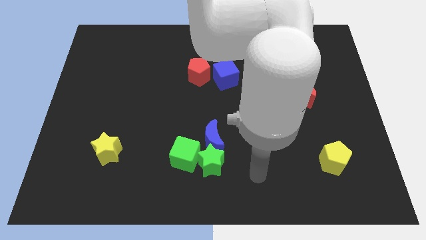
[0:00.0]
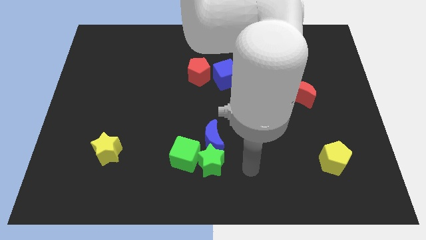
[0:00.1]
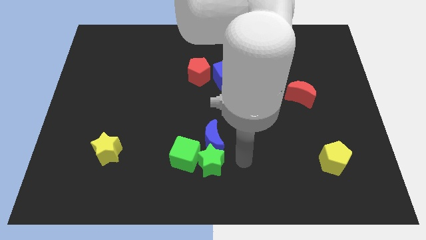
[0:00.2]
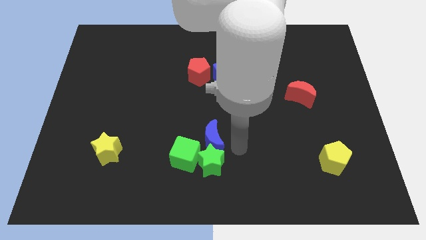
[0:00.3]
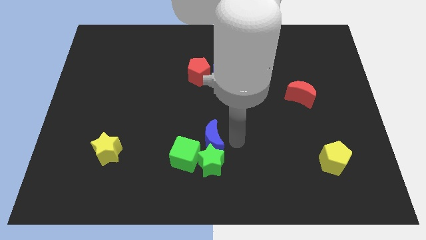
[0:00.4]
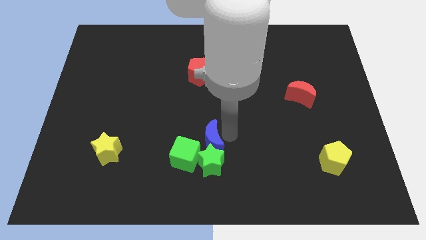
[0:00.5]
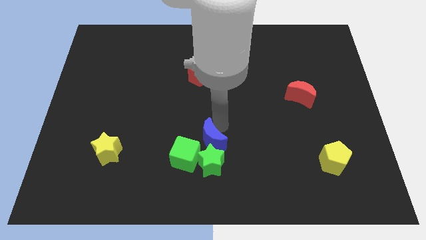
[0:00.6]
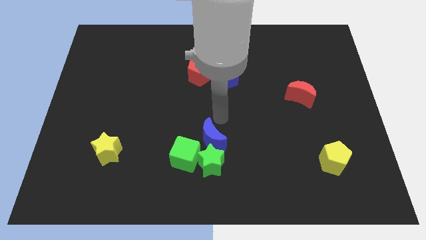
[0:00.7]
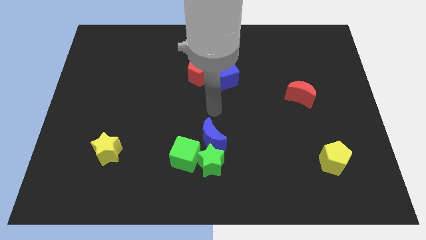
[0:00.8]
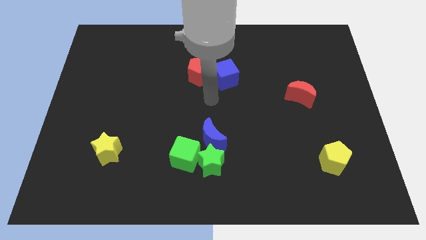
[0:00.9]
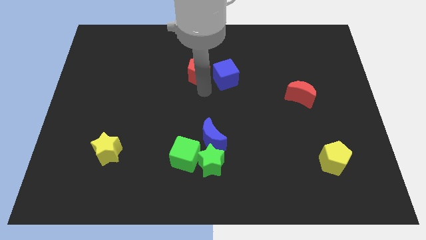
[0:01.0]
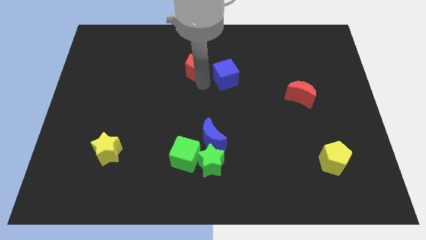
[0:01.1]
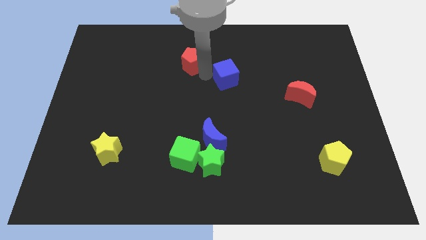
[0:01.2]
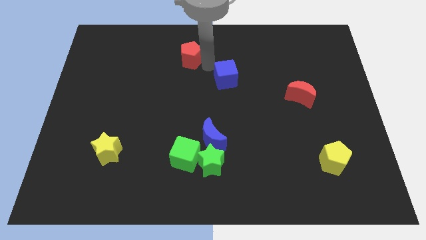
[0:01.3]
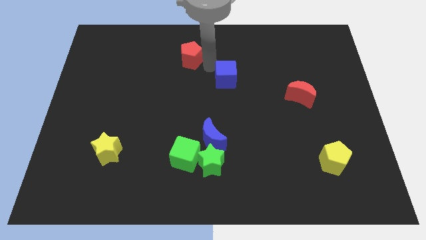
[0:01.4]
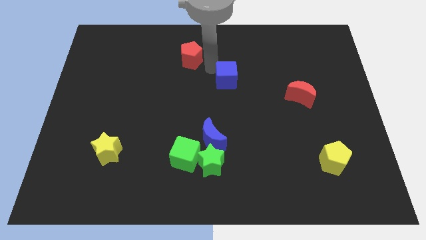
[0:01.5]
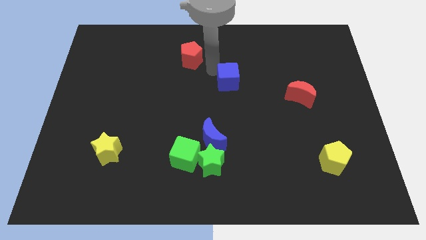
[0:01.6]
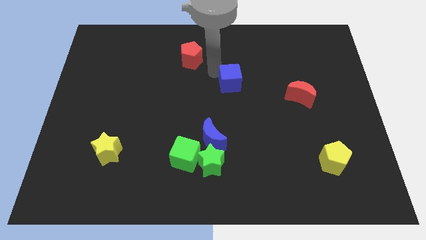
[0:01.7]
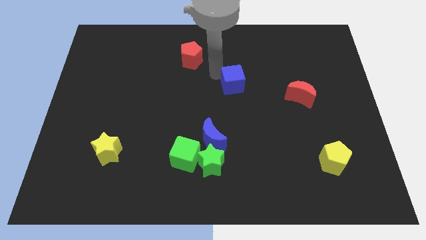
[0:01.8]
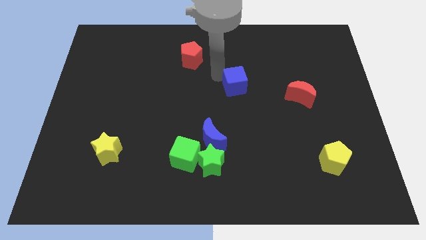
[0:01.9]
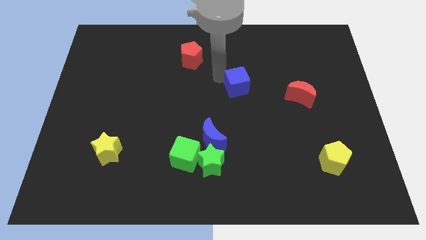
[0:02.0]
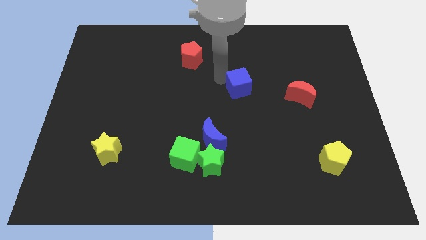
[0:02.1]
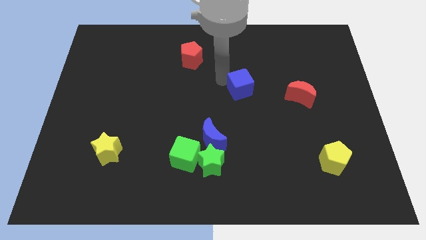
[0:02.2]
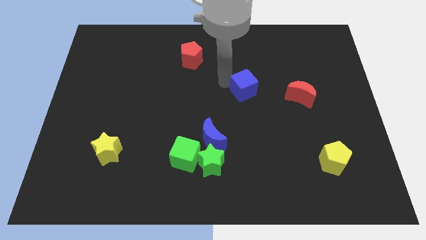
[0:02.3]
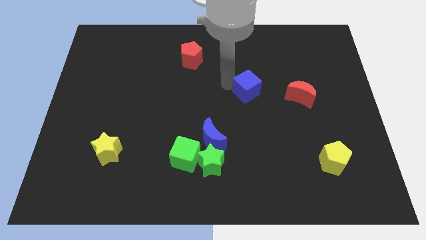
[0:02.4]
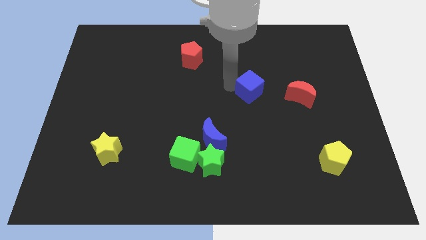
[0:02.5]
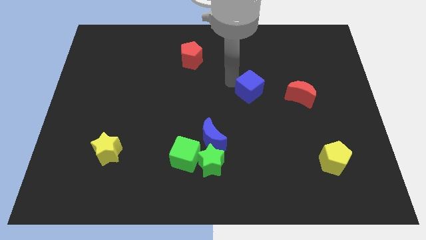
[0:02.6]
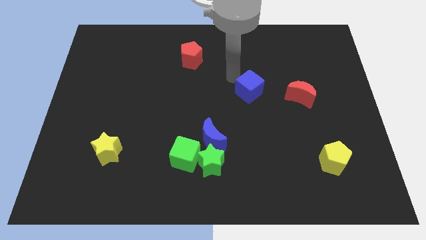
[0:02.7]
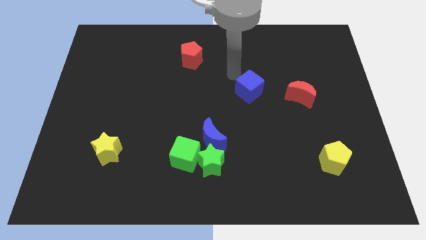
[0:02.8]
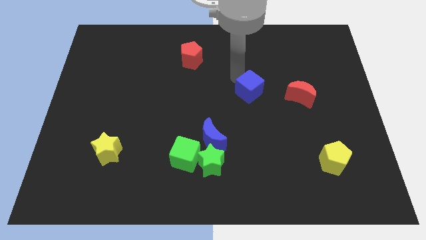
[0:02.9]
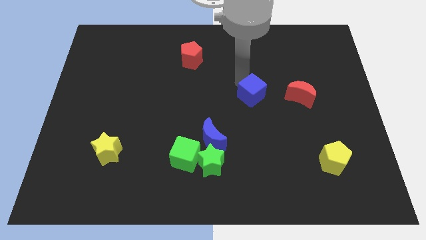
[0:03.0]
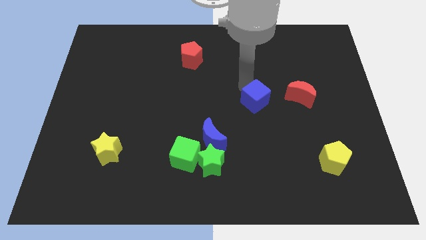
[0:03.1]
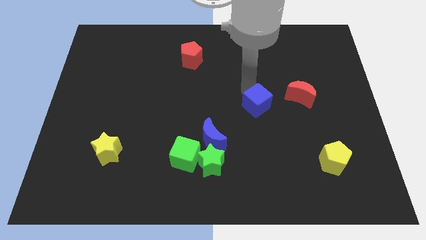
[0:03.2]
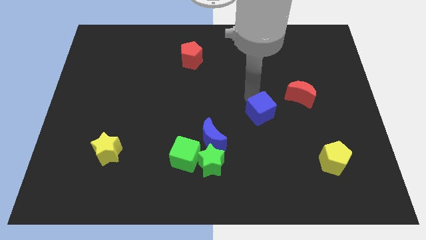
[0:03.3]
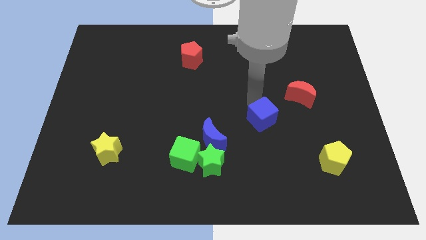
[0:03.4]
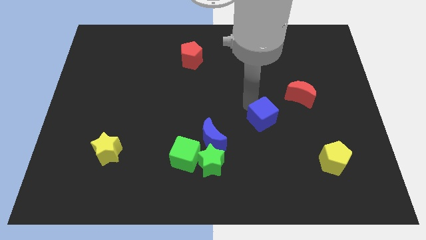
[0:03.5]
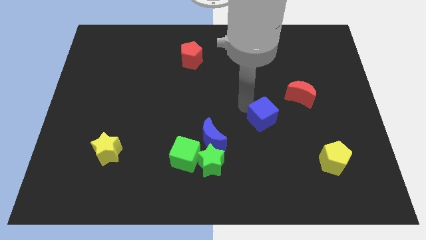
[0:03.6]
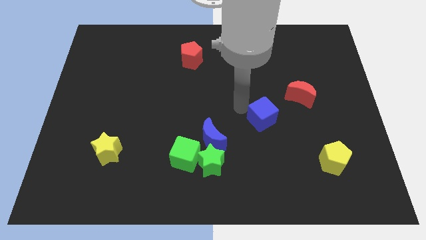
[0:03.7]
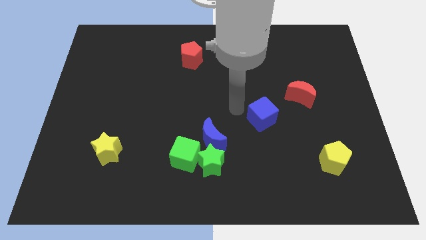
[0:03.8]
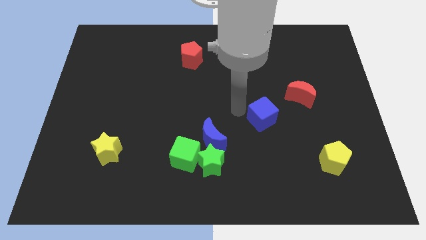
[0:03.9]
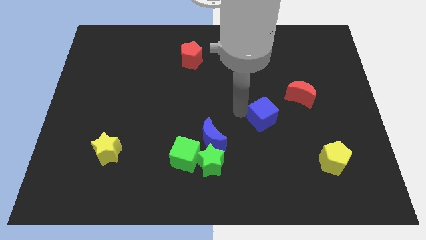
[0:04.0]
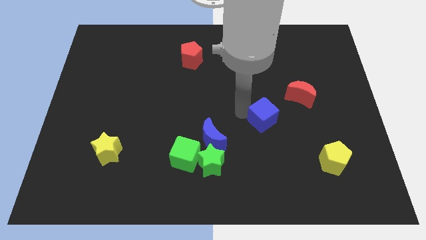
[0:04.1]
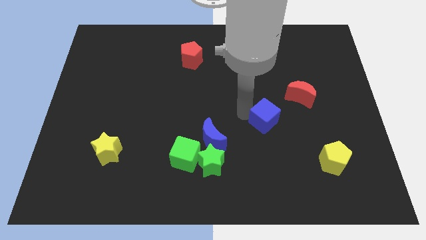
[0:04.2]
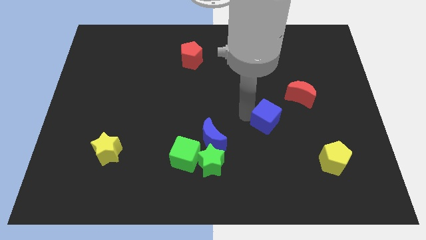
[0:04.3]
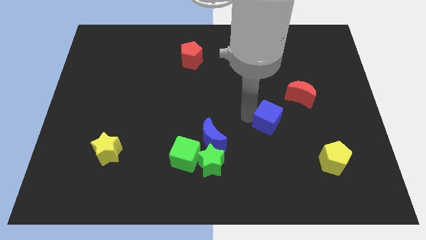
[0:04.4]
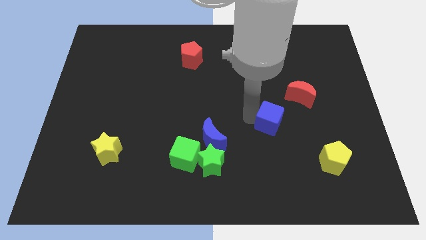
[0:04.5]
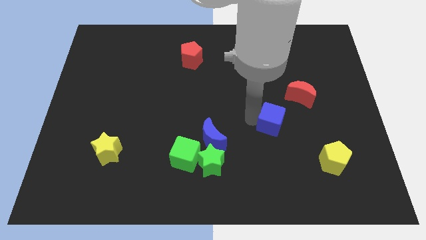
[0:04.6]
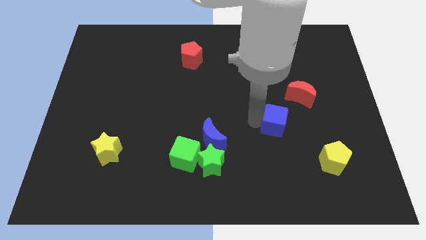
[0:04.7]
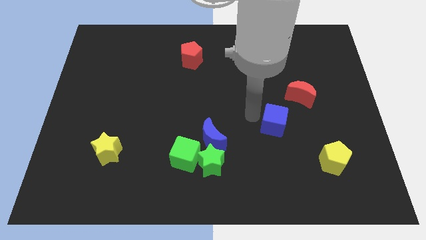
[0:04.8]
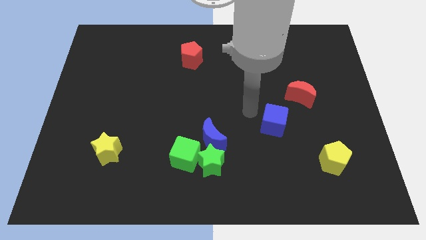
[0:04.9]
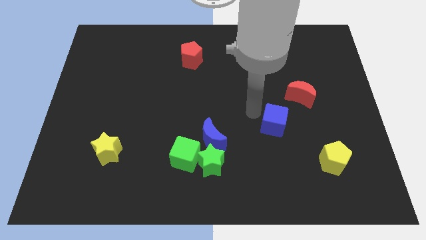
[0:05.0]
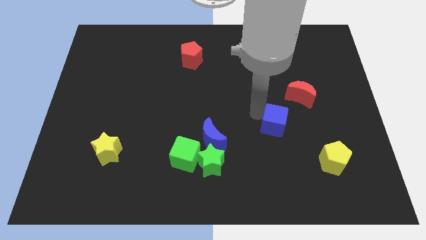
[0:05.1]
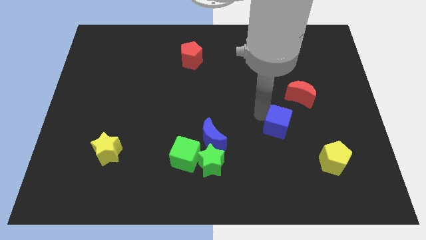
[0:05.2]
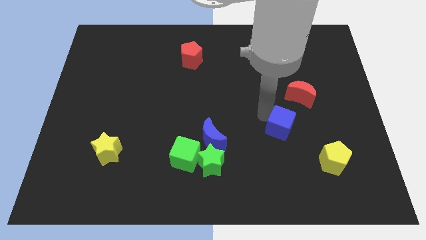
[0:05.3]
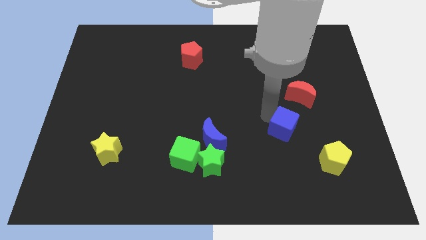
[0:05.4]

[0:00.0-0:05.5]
slide the blue cube to the top left side of the yellow pentagon

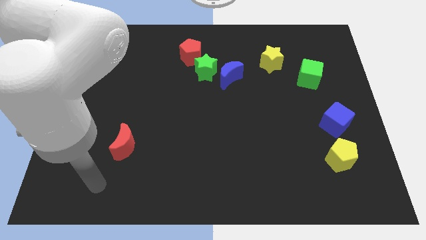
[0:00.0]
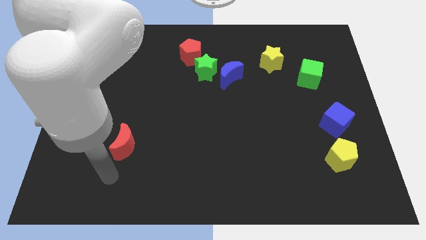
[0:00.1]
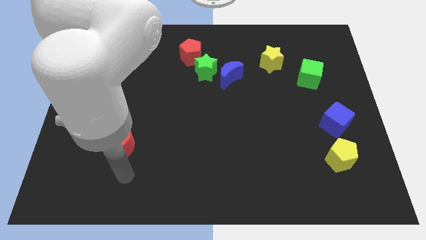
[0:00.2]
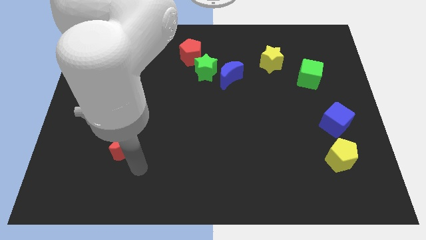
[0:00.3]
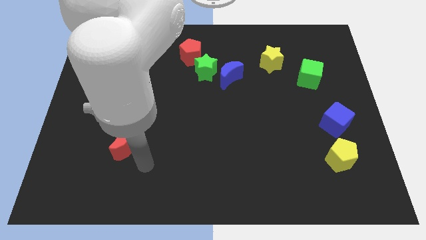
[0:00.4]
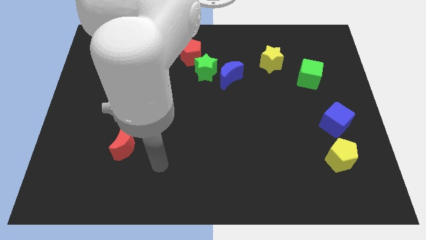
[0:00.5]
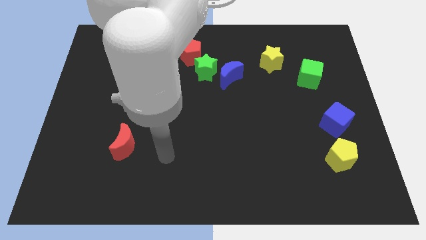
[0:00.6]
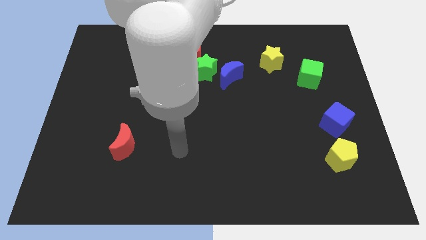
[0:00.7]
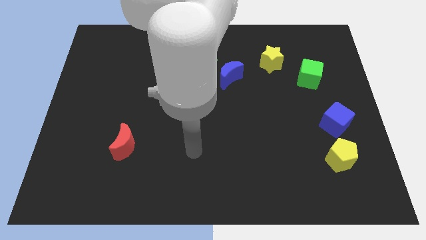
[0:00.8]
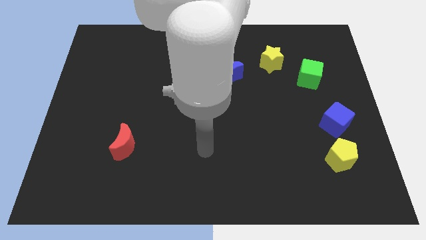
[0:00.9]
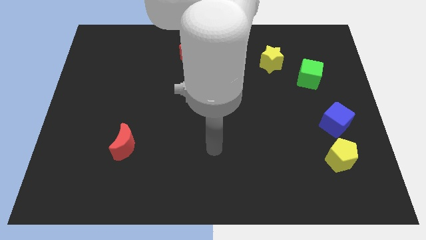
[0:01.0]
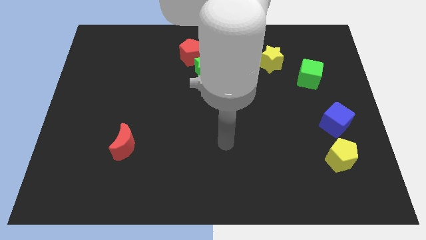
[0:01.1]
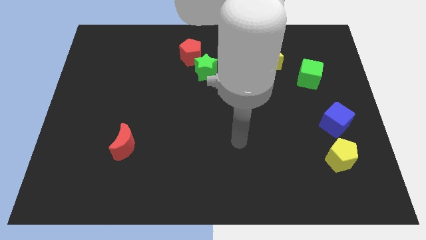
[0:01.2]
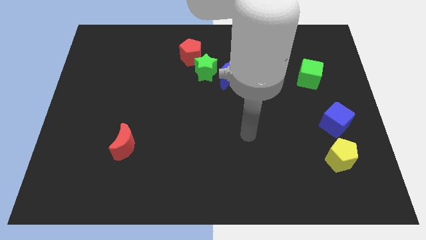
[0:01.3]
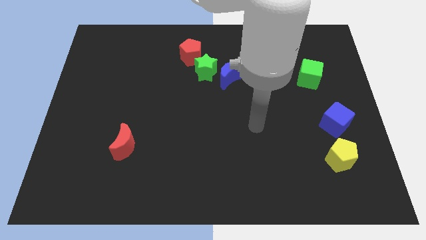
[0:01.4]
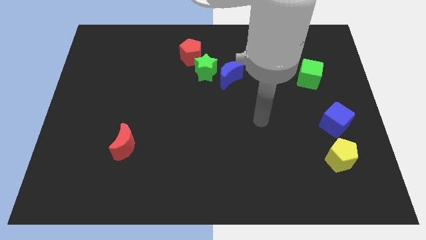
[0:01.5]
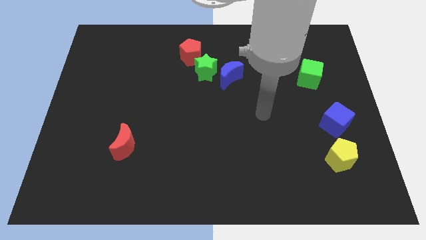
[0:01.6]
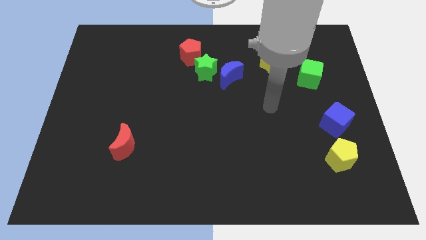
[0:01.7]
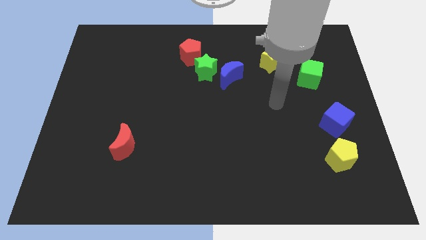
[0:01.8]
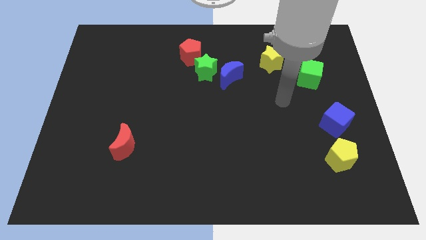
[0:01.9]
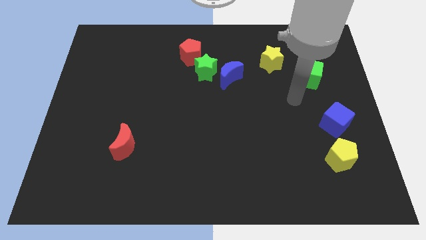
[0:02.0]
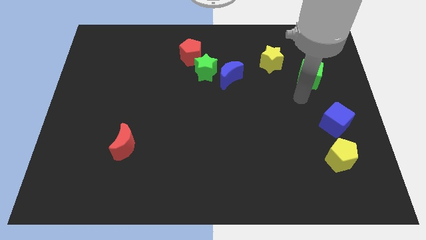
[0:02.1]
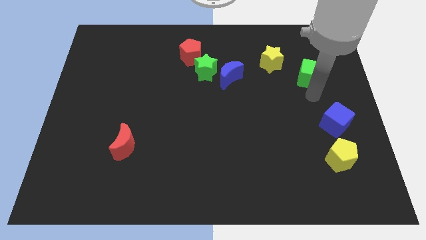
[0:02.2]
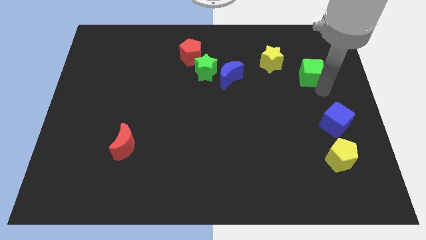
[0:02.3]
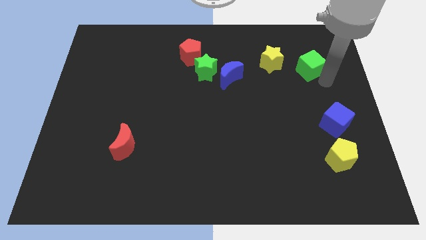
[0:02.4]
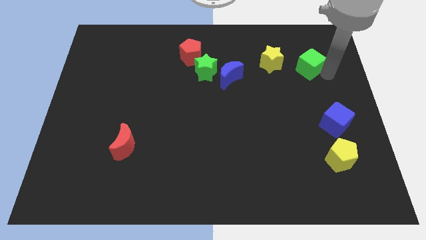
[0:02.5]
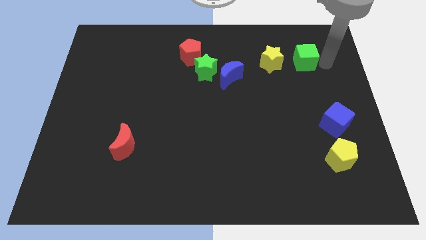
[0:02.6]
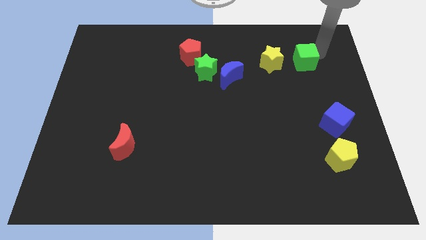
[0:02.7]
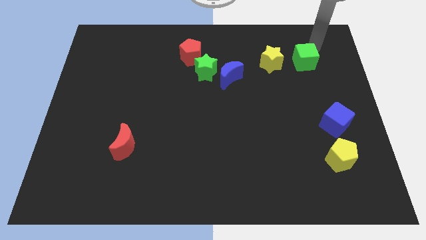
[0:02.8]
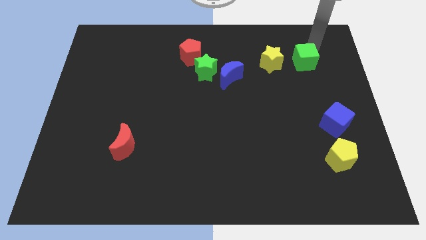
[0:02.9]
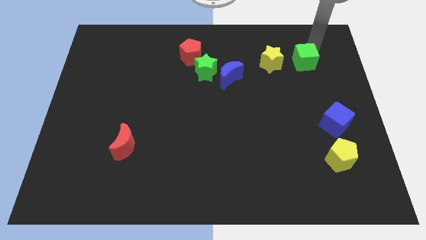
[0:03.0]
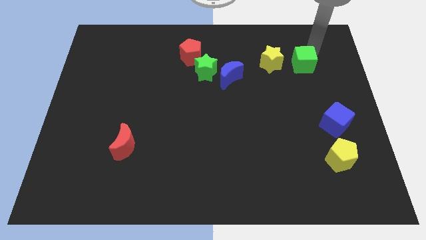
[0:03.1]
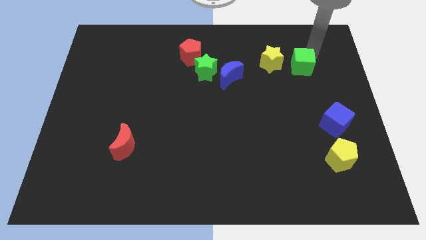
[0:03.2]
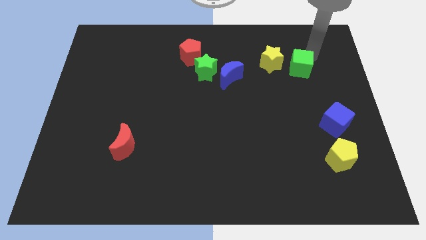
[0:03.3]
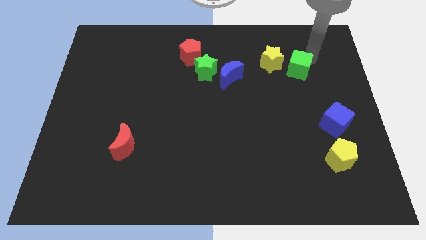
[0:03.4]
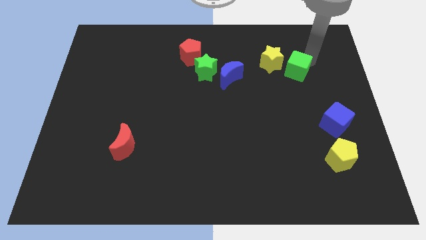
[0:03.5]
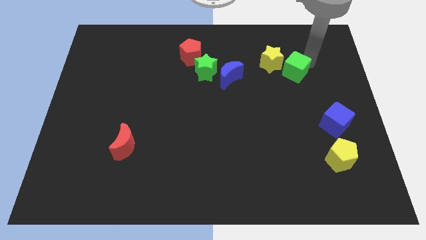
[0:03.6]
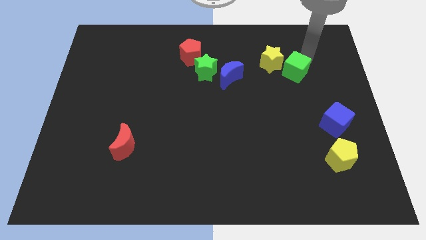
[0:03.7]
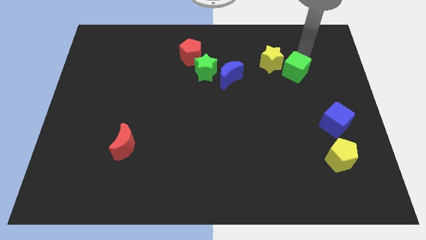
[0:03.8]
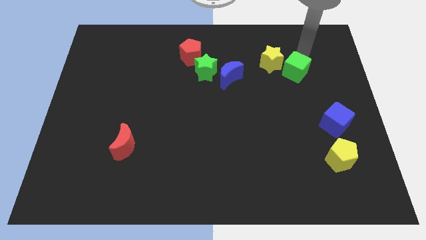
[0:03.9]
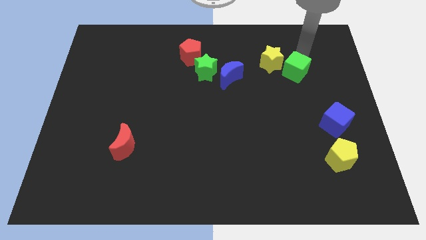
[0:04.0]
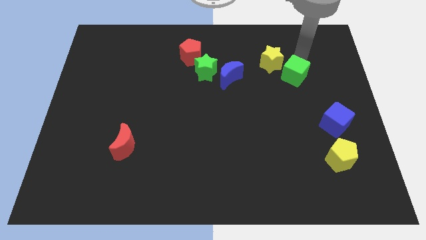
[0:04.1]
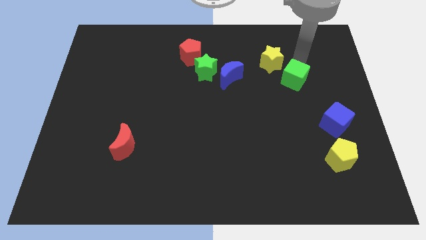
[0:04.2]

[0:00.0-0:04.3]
put the green cube below the yellow star
